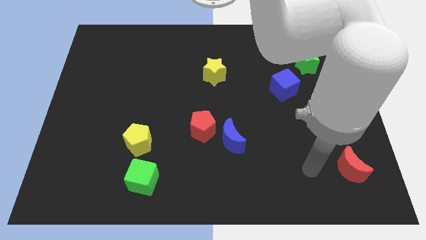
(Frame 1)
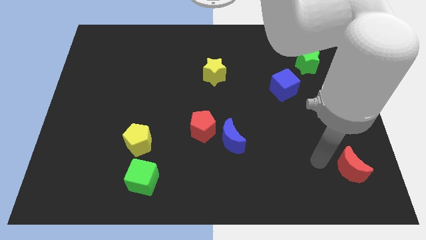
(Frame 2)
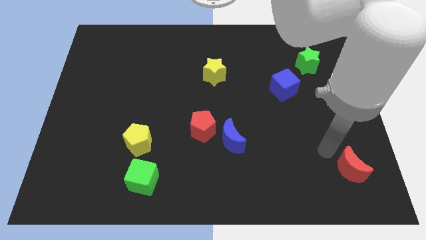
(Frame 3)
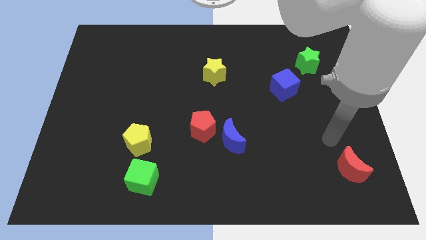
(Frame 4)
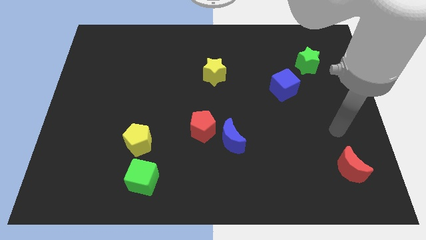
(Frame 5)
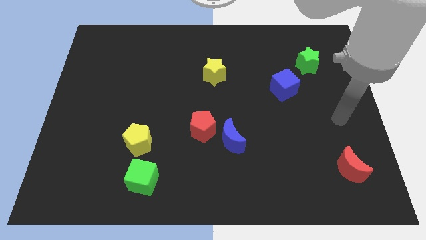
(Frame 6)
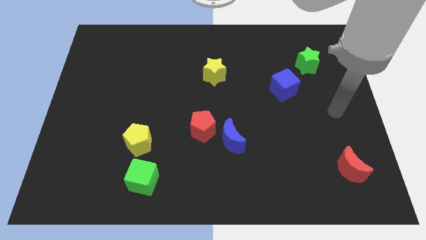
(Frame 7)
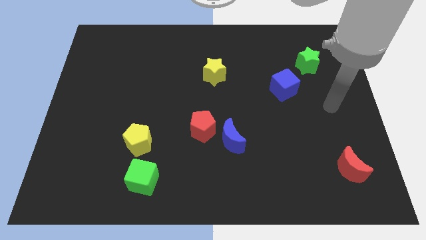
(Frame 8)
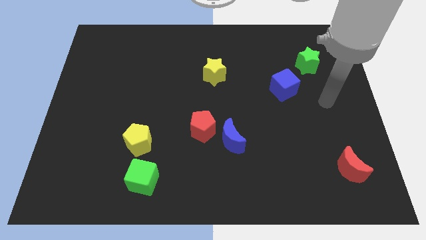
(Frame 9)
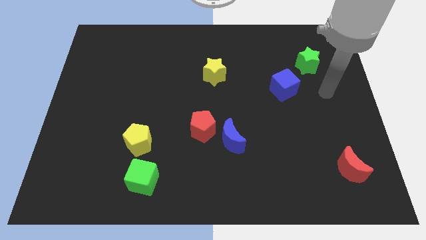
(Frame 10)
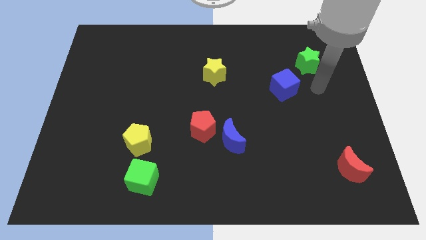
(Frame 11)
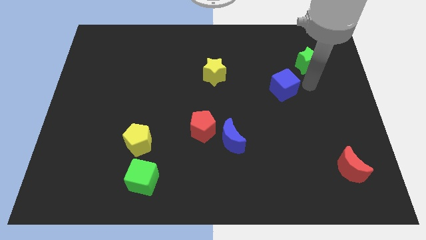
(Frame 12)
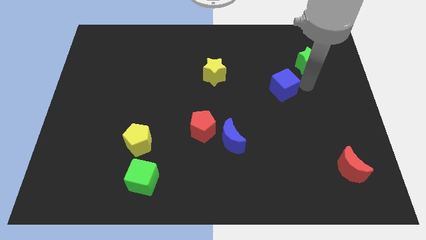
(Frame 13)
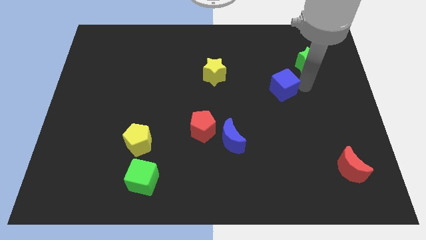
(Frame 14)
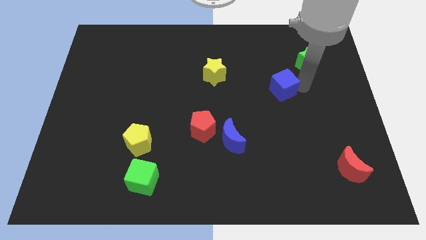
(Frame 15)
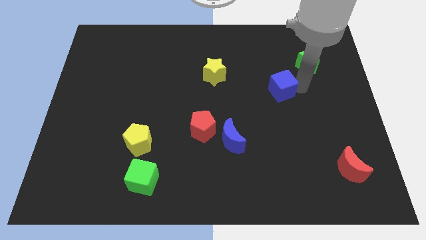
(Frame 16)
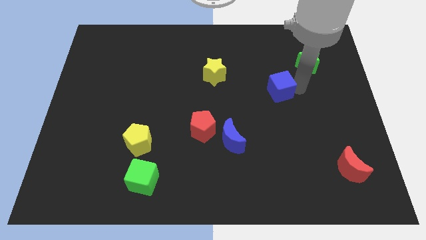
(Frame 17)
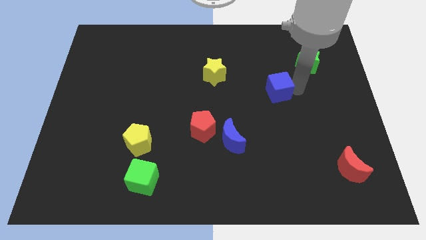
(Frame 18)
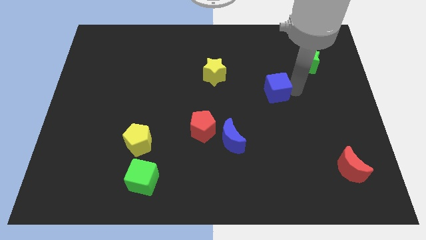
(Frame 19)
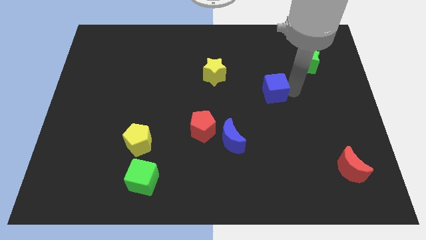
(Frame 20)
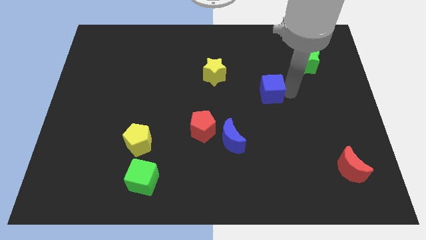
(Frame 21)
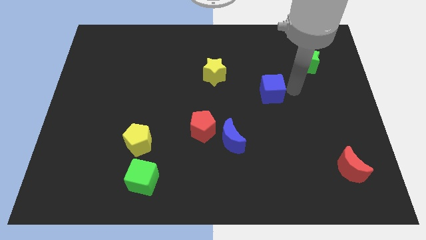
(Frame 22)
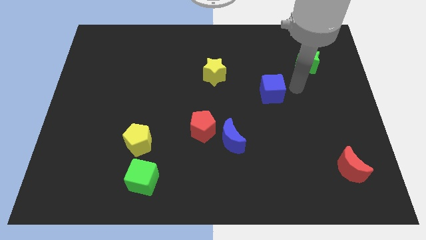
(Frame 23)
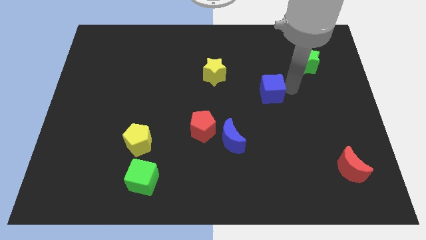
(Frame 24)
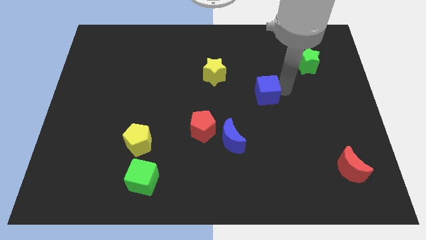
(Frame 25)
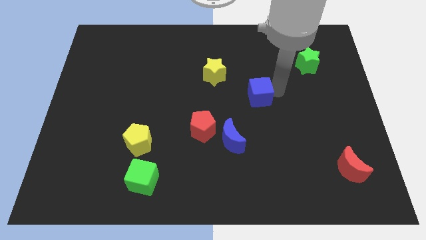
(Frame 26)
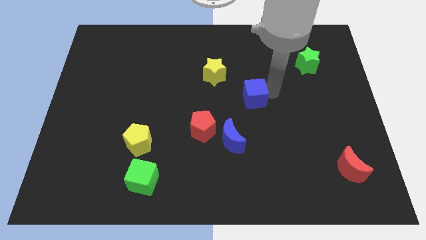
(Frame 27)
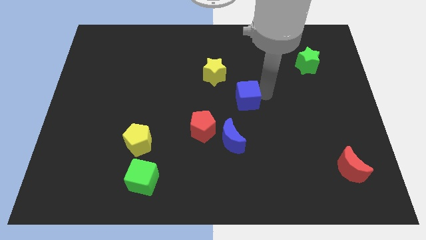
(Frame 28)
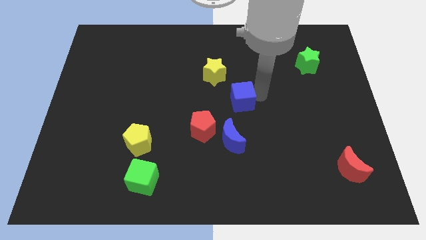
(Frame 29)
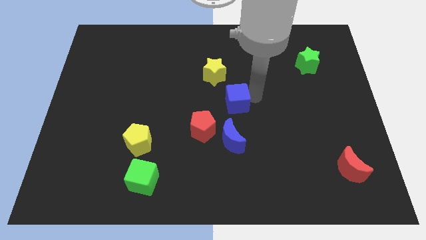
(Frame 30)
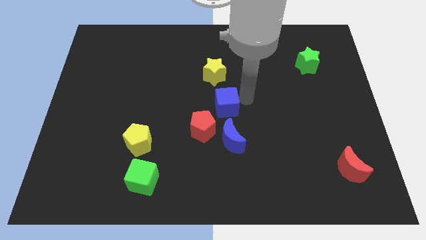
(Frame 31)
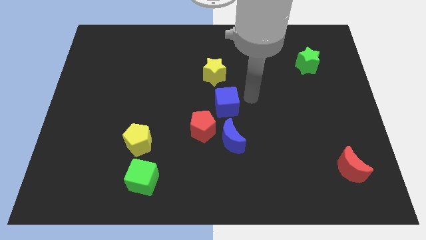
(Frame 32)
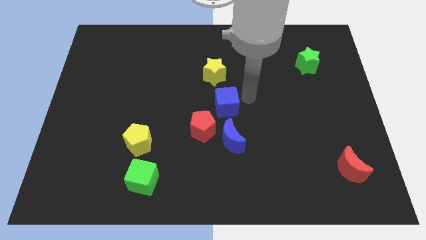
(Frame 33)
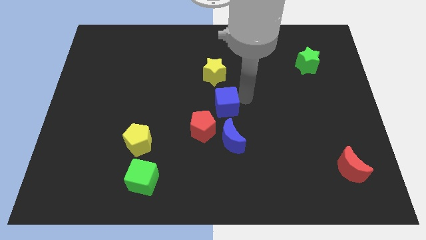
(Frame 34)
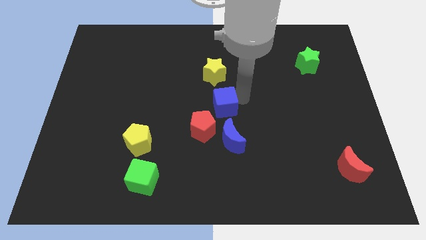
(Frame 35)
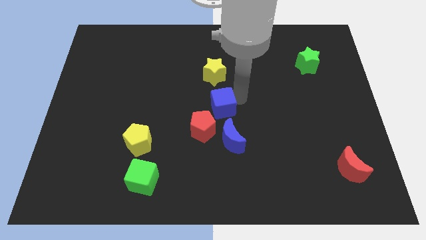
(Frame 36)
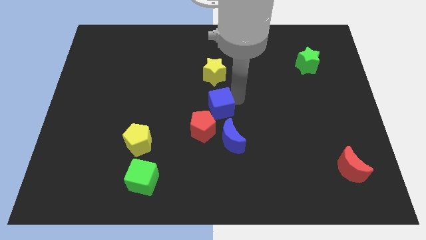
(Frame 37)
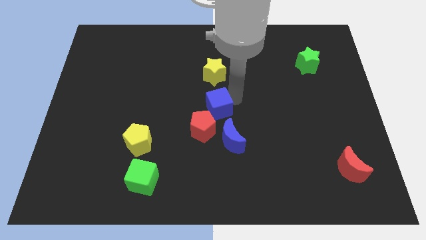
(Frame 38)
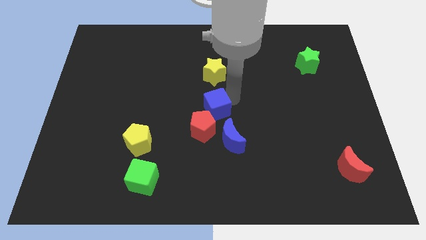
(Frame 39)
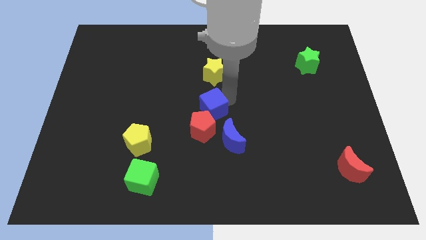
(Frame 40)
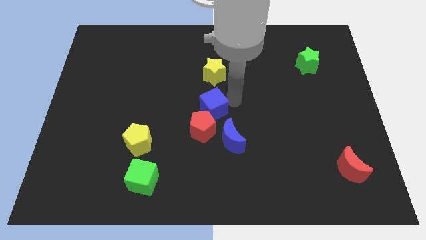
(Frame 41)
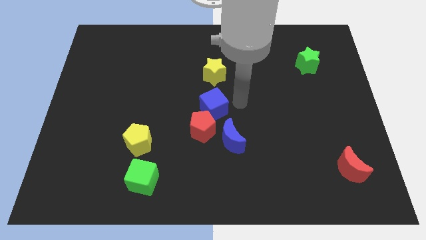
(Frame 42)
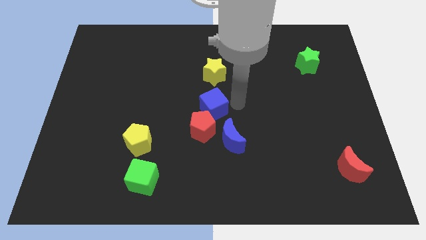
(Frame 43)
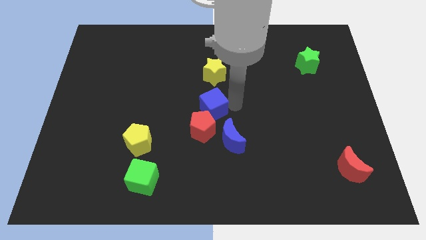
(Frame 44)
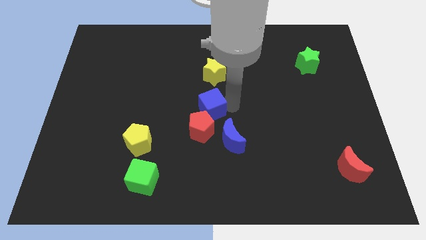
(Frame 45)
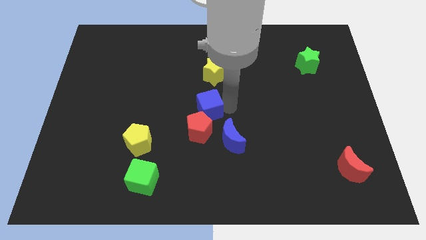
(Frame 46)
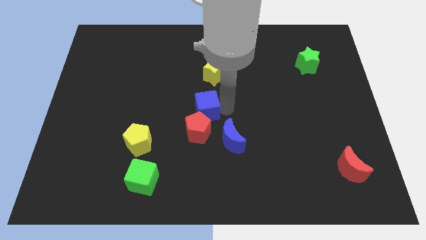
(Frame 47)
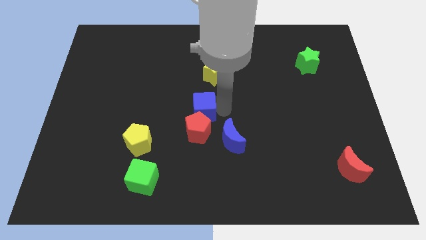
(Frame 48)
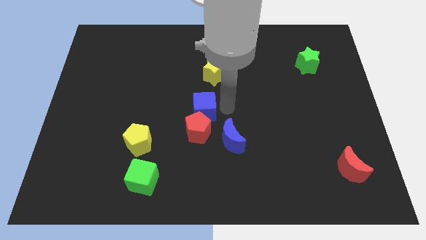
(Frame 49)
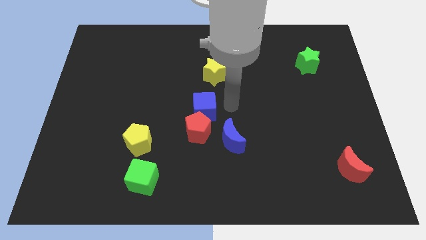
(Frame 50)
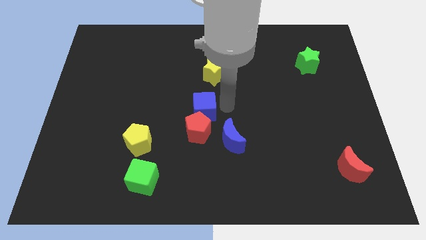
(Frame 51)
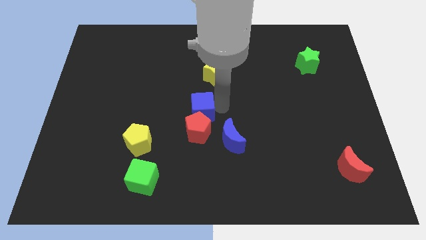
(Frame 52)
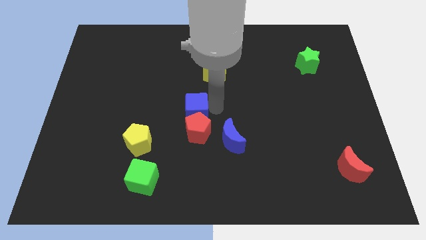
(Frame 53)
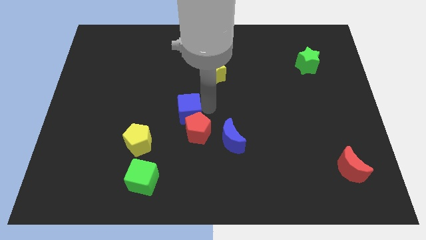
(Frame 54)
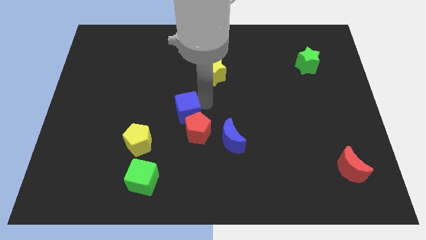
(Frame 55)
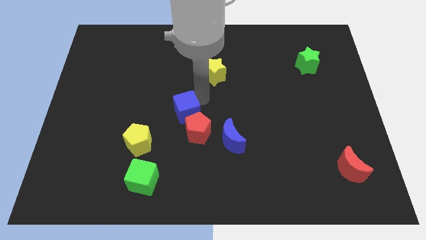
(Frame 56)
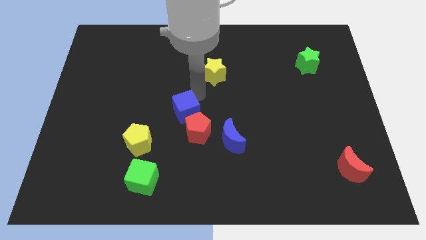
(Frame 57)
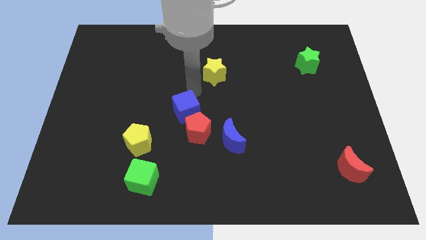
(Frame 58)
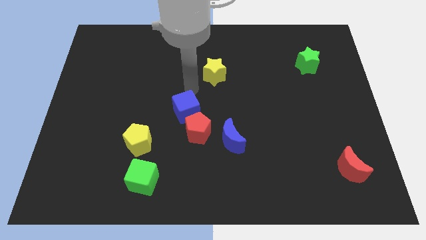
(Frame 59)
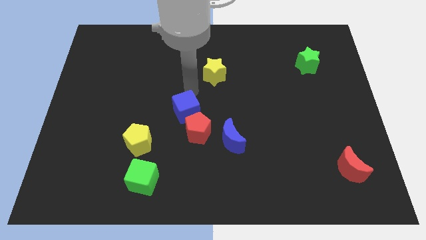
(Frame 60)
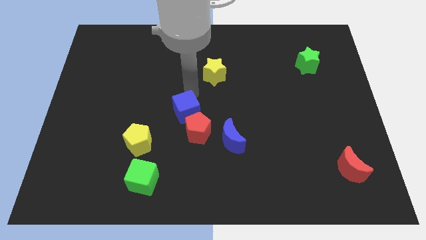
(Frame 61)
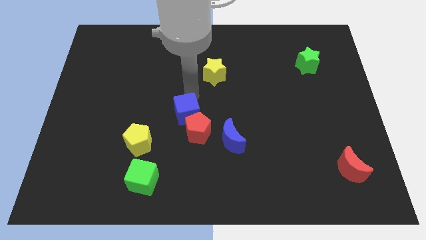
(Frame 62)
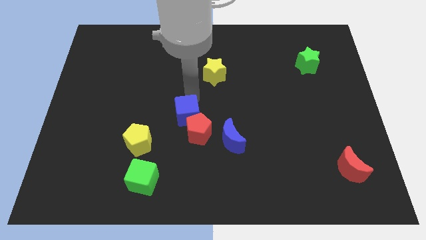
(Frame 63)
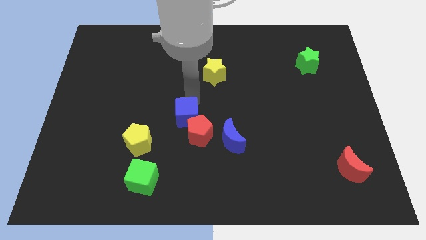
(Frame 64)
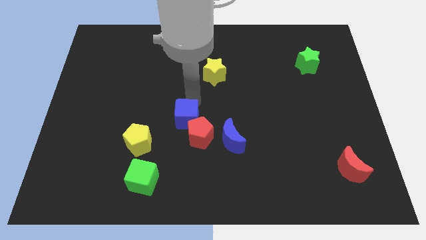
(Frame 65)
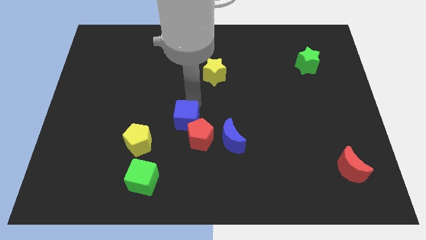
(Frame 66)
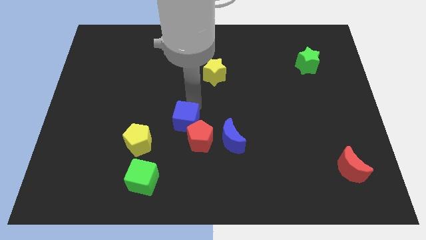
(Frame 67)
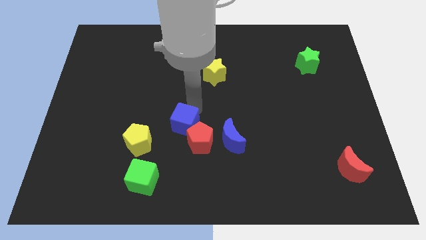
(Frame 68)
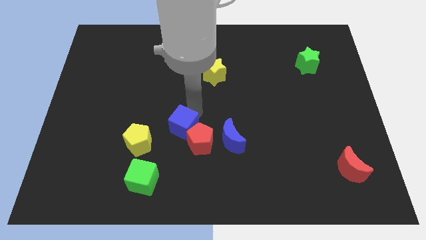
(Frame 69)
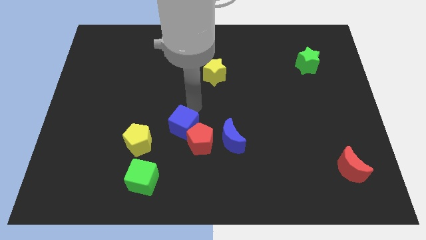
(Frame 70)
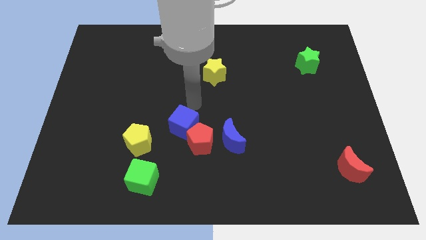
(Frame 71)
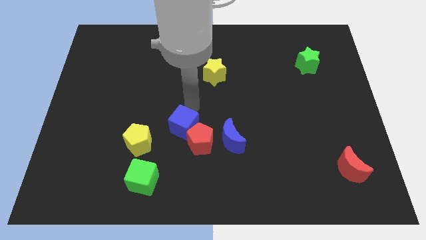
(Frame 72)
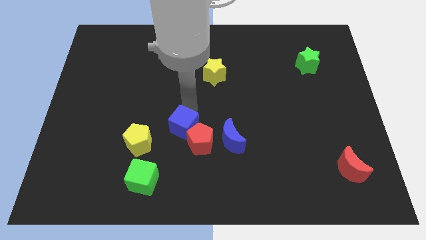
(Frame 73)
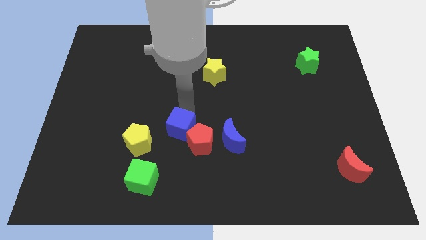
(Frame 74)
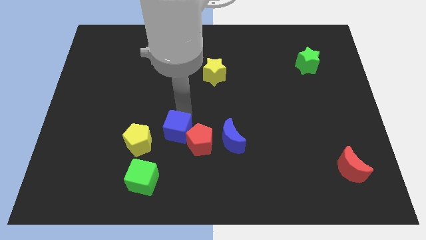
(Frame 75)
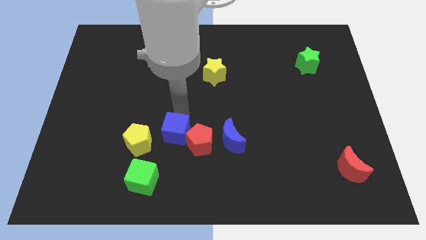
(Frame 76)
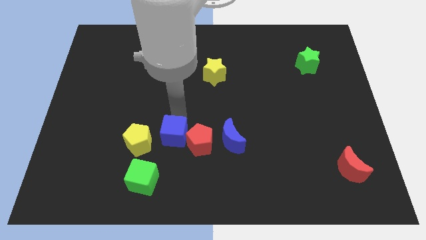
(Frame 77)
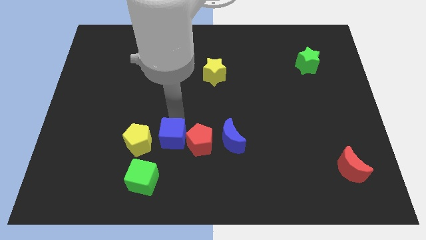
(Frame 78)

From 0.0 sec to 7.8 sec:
push the blue cube to the top right side of the green cube
